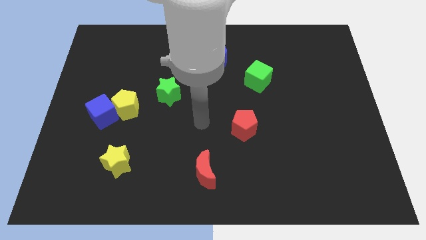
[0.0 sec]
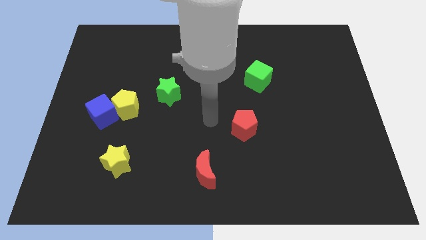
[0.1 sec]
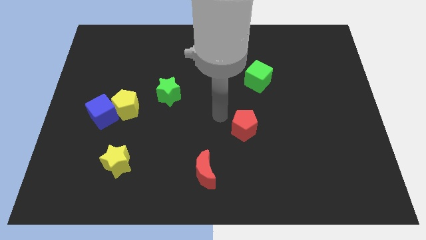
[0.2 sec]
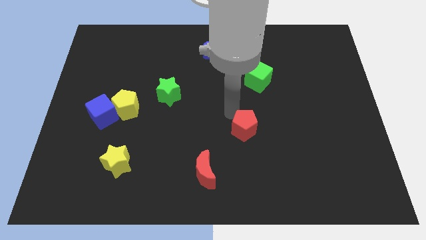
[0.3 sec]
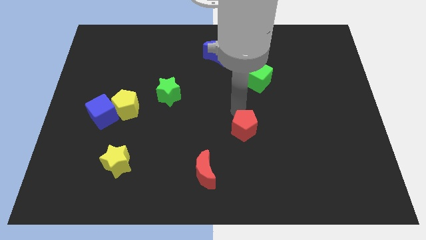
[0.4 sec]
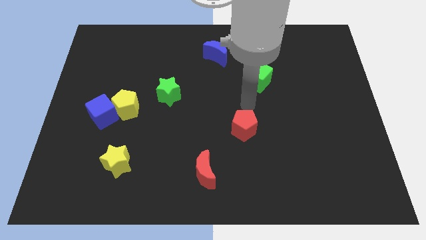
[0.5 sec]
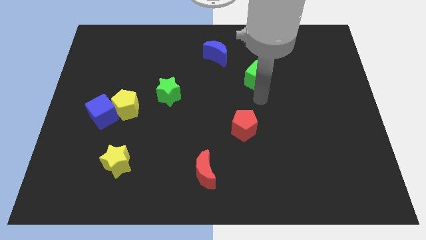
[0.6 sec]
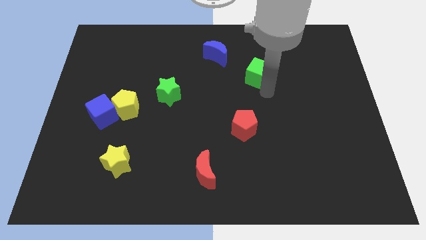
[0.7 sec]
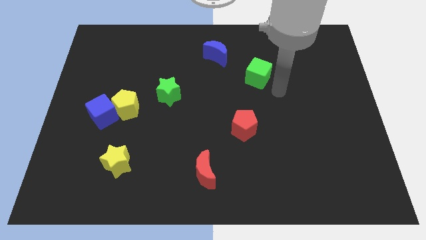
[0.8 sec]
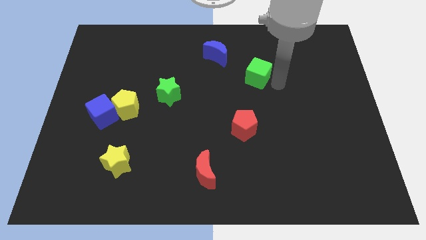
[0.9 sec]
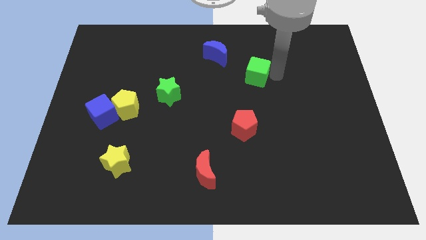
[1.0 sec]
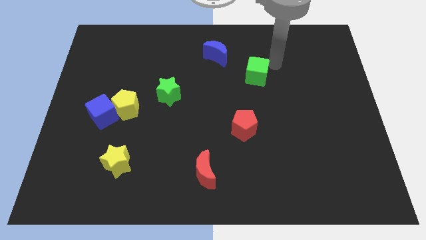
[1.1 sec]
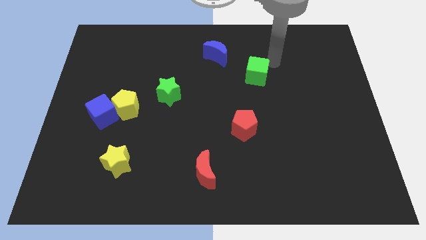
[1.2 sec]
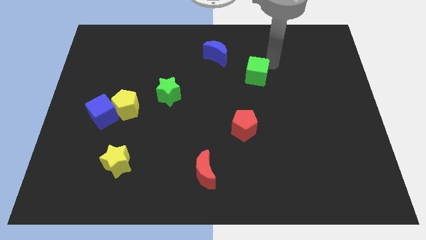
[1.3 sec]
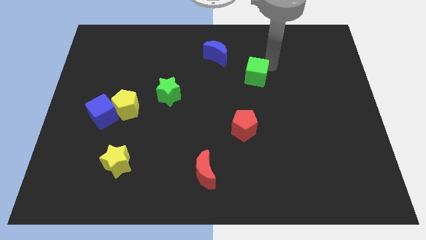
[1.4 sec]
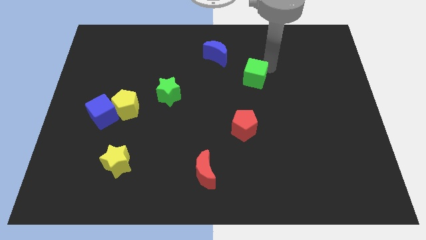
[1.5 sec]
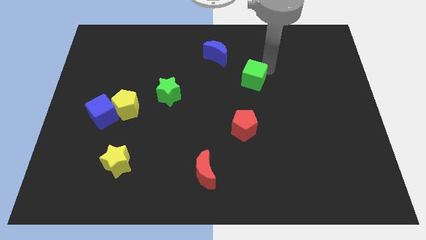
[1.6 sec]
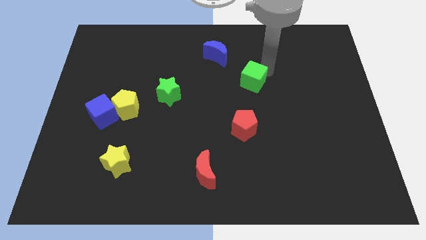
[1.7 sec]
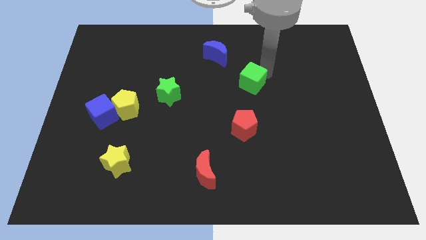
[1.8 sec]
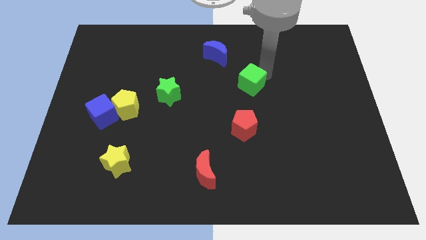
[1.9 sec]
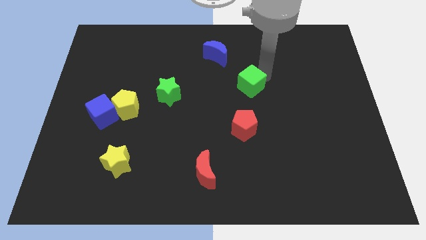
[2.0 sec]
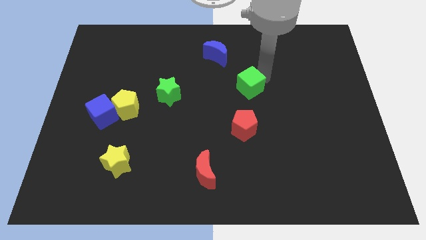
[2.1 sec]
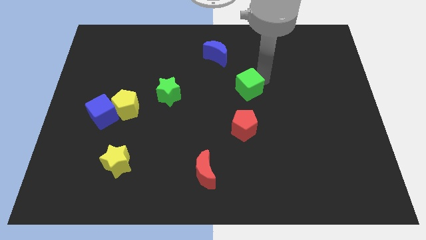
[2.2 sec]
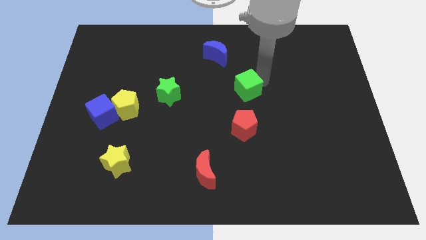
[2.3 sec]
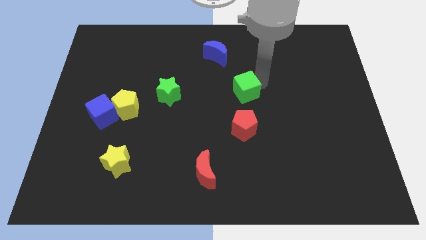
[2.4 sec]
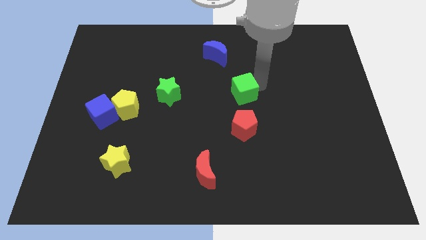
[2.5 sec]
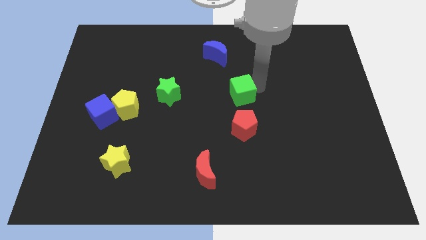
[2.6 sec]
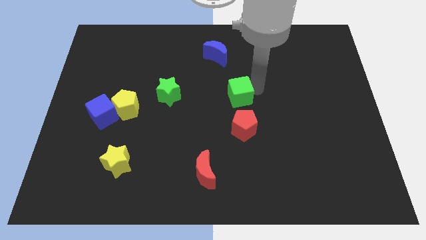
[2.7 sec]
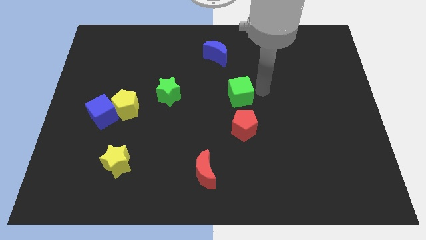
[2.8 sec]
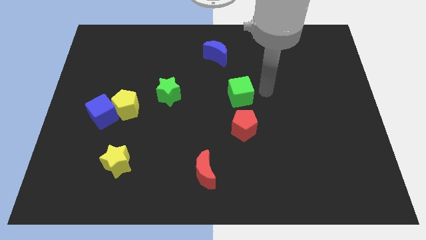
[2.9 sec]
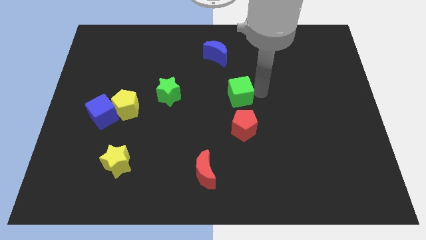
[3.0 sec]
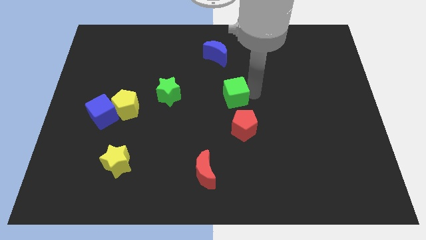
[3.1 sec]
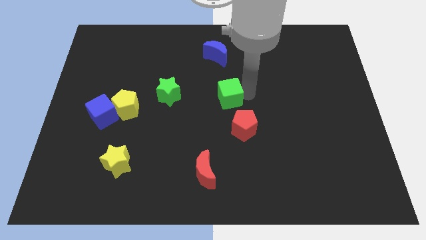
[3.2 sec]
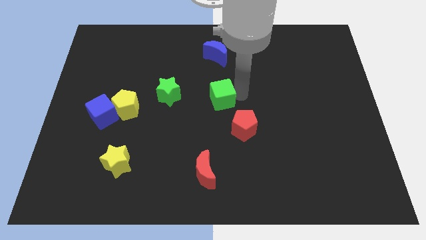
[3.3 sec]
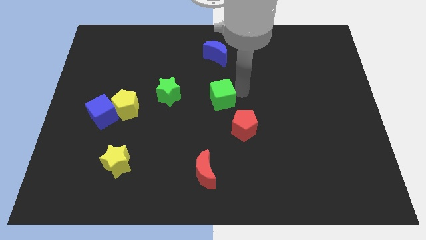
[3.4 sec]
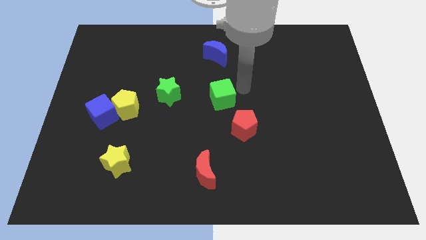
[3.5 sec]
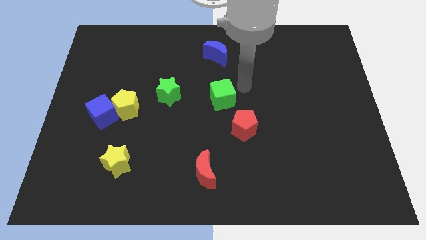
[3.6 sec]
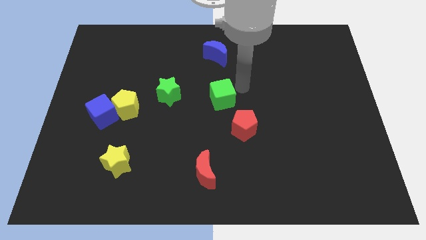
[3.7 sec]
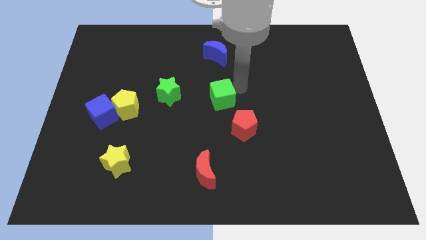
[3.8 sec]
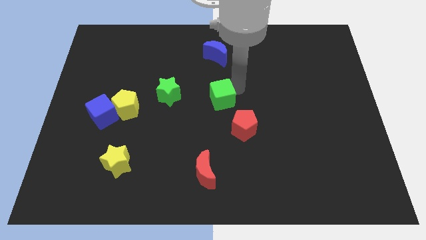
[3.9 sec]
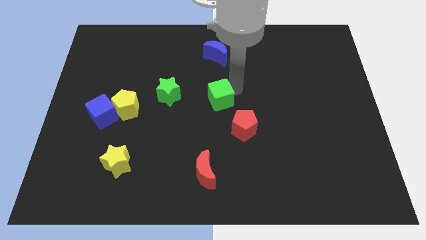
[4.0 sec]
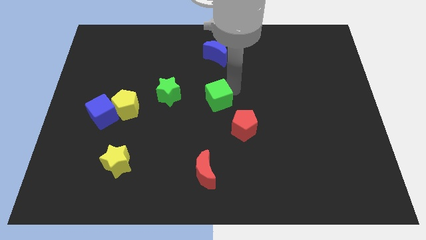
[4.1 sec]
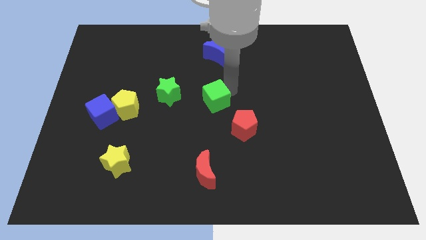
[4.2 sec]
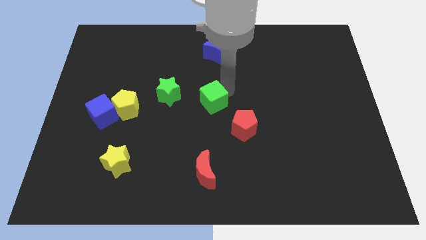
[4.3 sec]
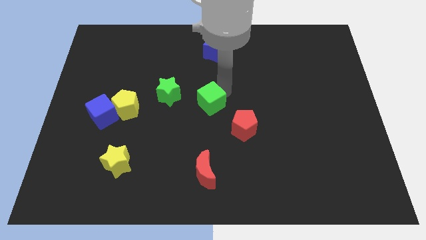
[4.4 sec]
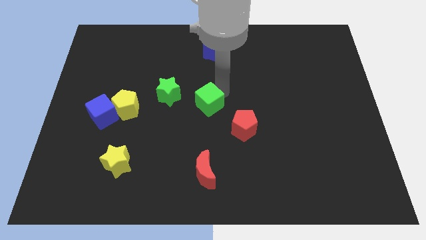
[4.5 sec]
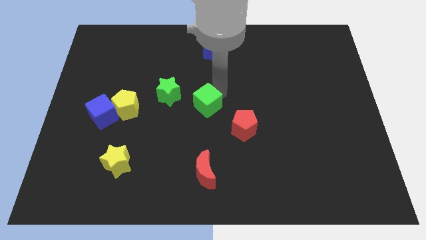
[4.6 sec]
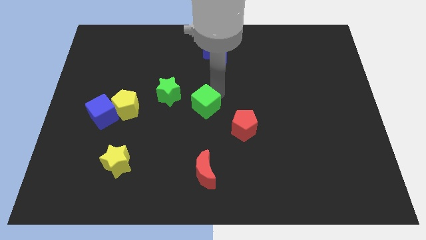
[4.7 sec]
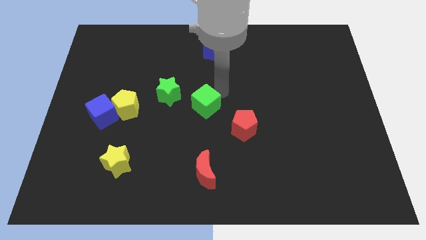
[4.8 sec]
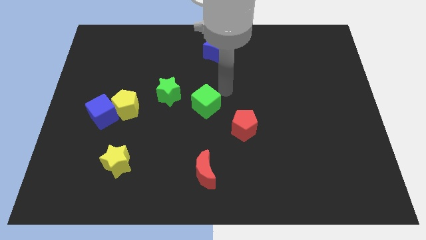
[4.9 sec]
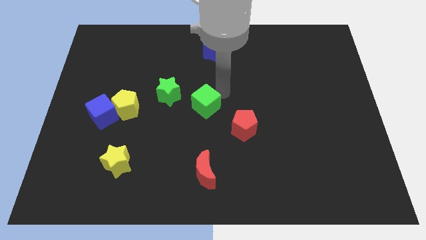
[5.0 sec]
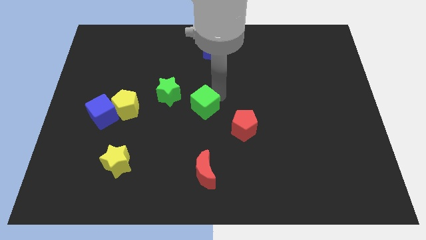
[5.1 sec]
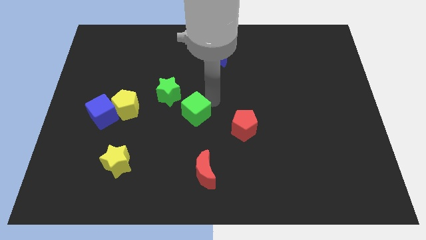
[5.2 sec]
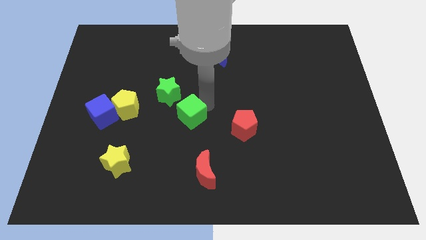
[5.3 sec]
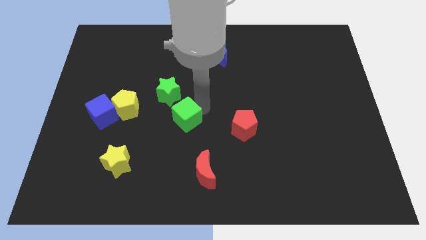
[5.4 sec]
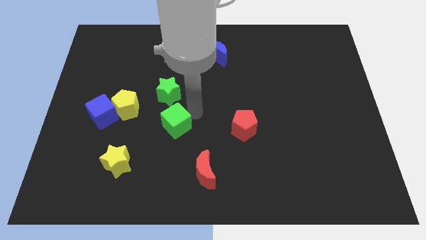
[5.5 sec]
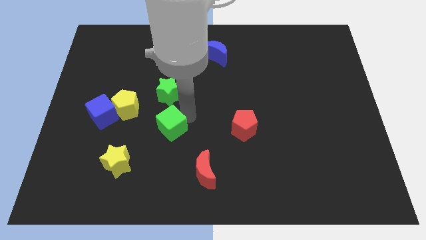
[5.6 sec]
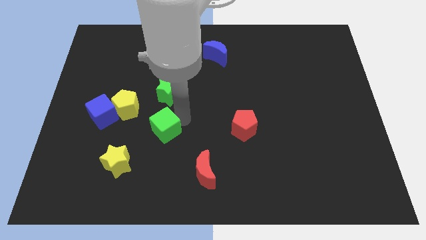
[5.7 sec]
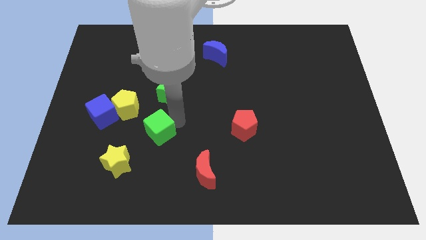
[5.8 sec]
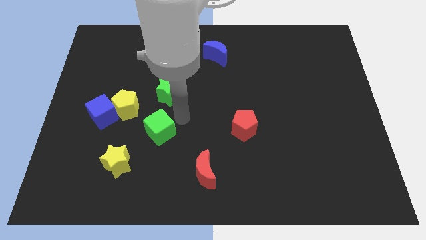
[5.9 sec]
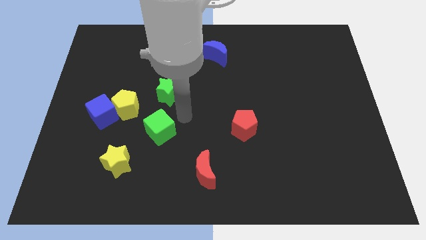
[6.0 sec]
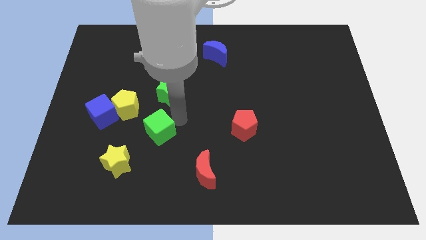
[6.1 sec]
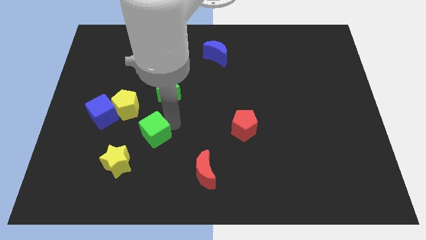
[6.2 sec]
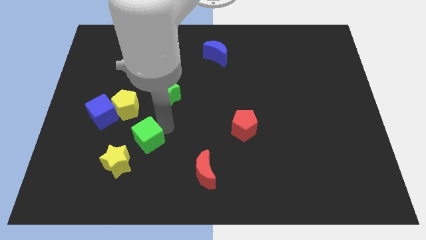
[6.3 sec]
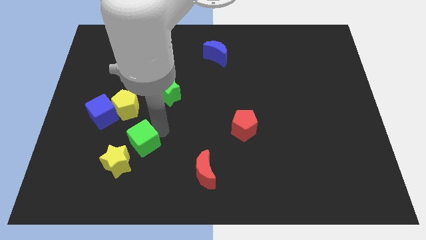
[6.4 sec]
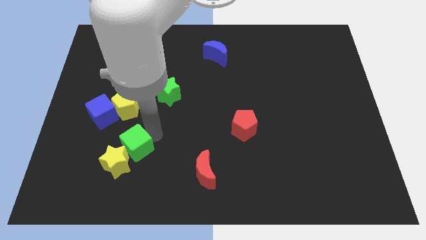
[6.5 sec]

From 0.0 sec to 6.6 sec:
slide the green cube close to the yellow star

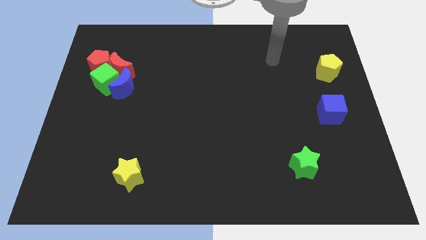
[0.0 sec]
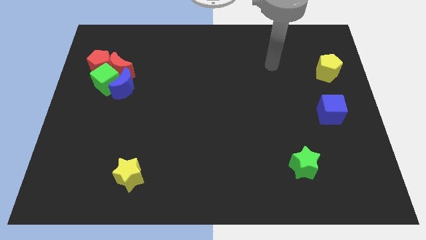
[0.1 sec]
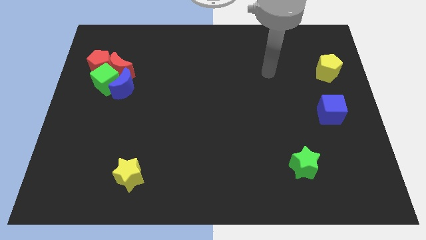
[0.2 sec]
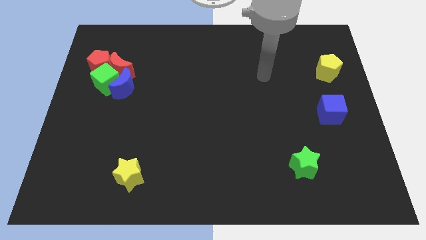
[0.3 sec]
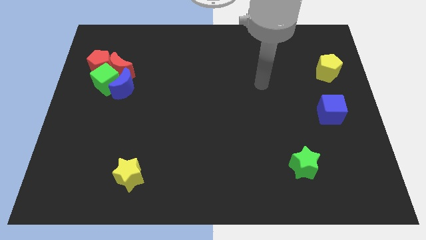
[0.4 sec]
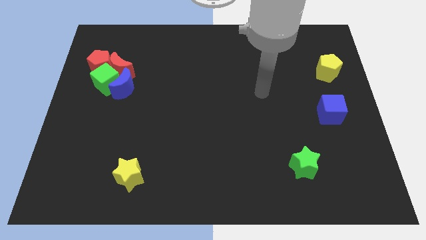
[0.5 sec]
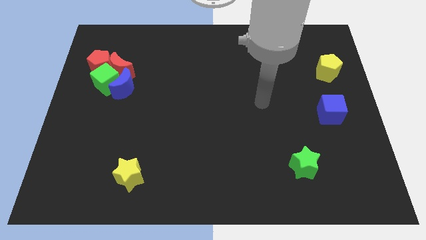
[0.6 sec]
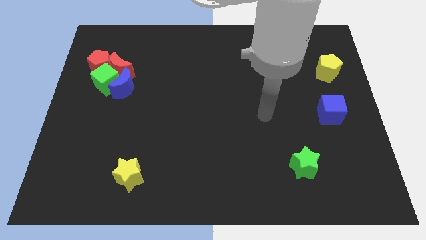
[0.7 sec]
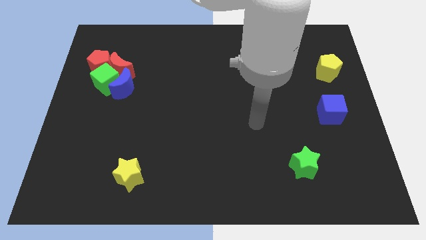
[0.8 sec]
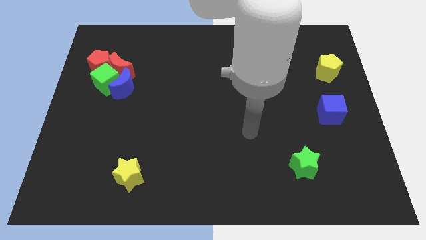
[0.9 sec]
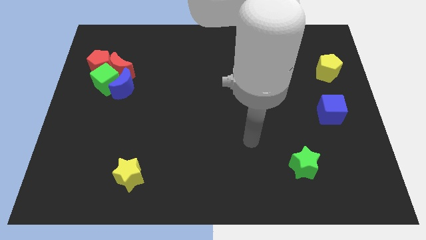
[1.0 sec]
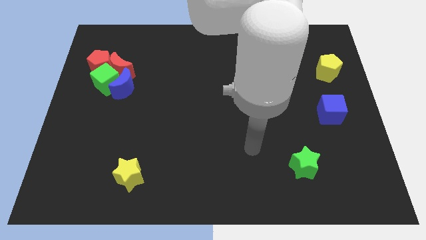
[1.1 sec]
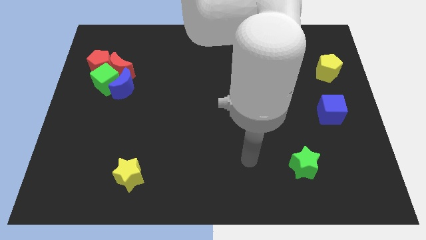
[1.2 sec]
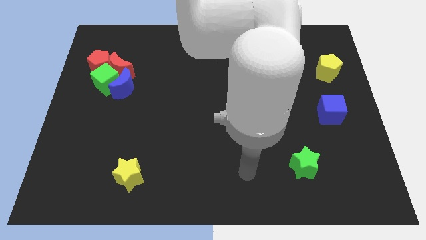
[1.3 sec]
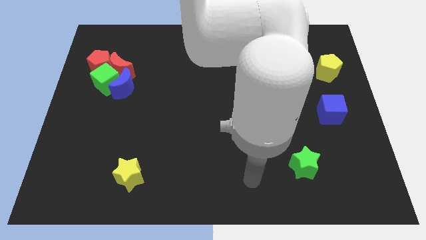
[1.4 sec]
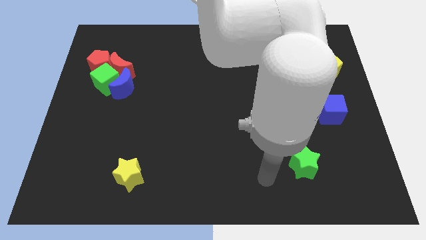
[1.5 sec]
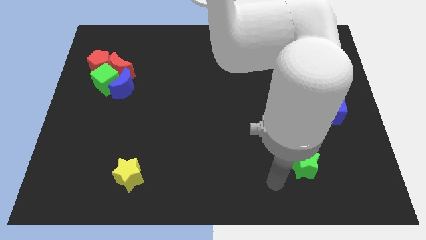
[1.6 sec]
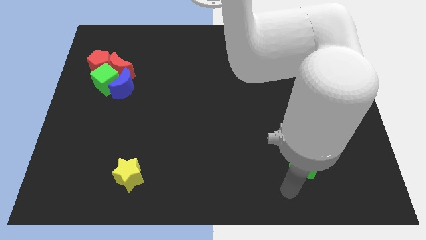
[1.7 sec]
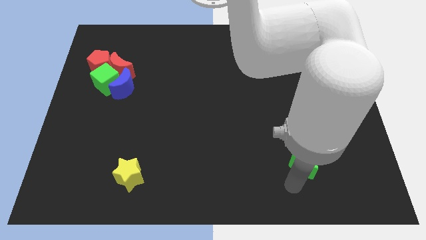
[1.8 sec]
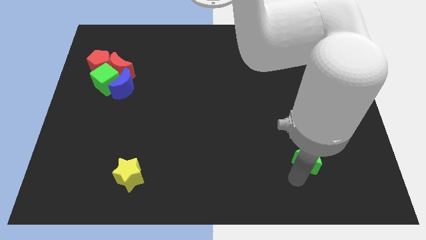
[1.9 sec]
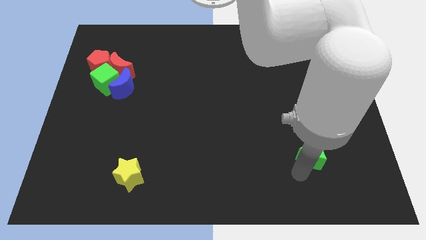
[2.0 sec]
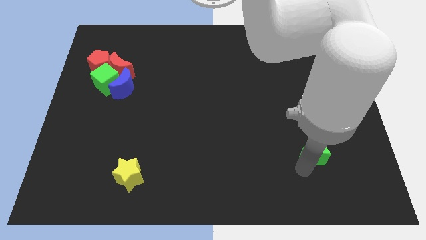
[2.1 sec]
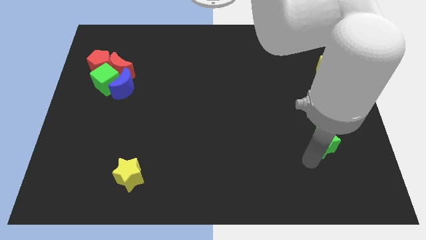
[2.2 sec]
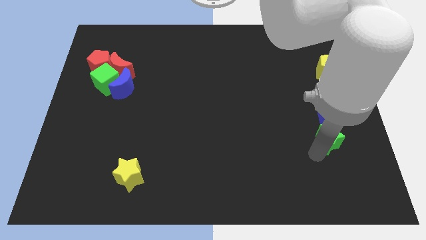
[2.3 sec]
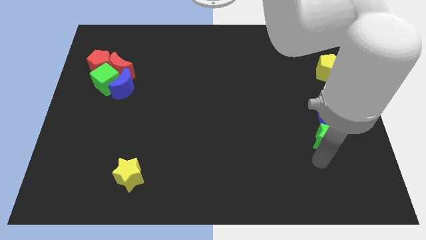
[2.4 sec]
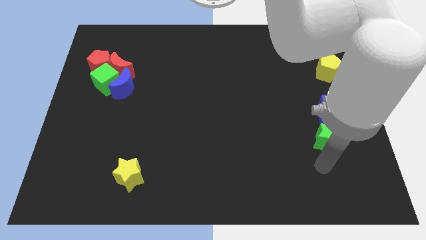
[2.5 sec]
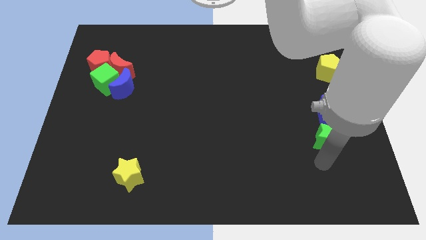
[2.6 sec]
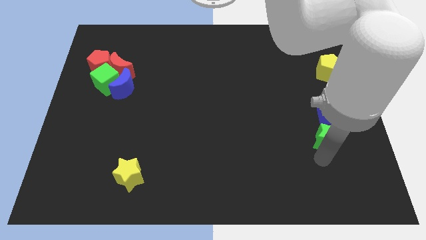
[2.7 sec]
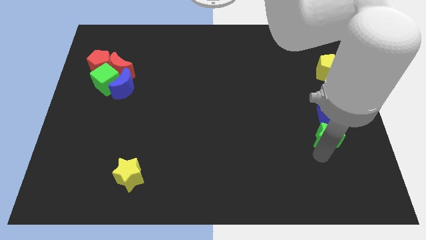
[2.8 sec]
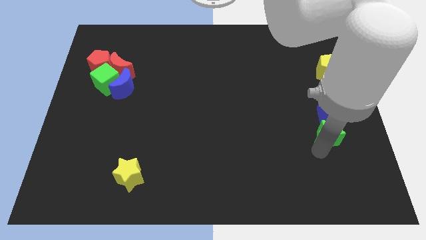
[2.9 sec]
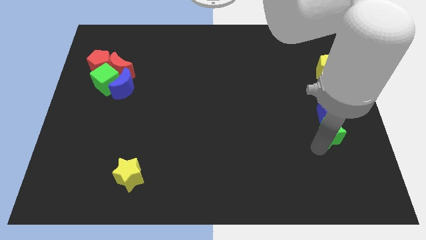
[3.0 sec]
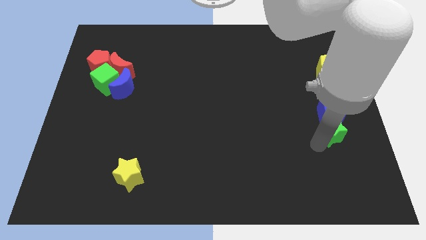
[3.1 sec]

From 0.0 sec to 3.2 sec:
push the green star next to the blue cube
